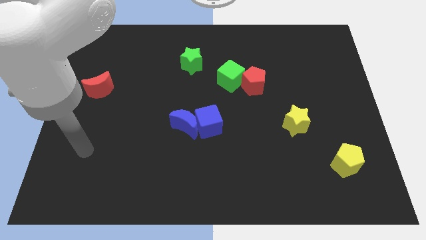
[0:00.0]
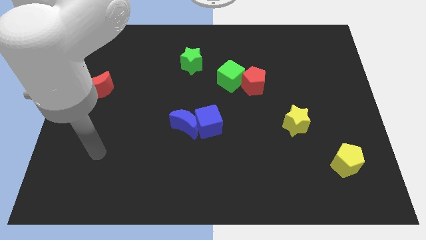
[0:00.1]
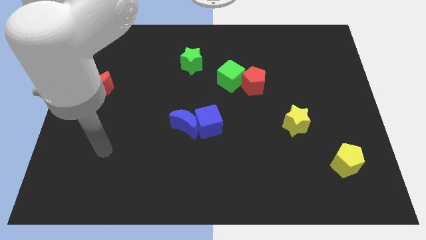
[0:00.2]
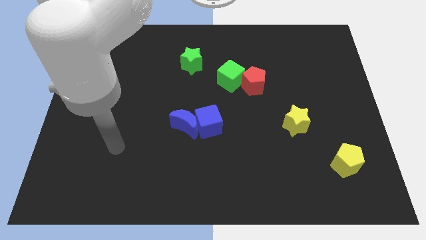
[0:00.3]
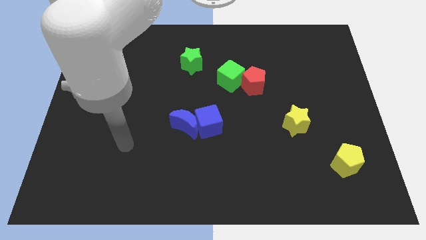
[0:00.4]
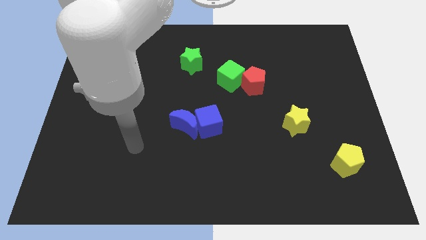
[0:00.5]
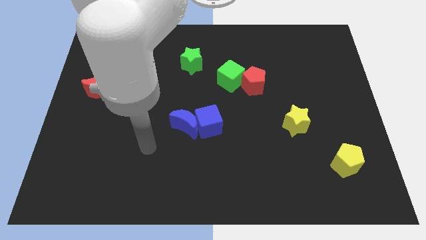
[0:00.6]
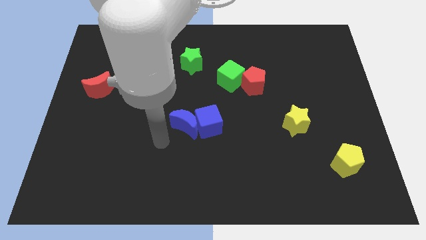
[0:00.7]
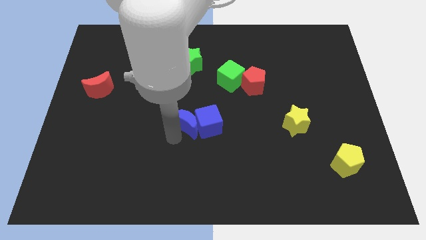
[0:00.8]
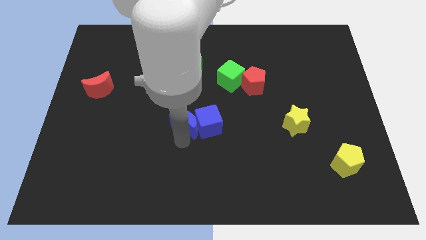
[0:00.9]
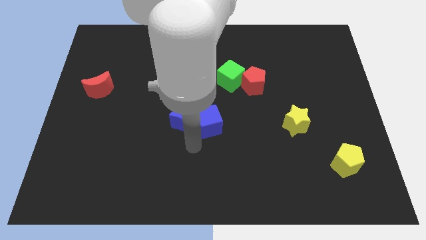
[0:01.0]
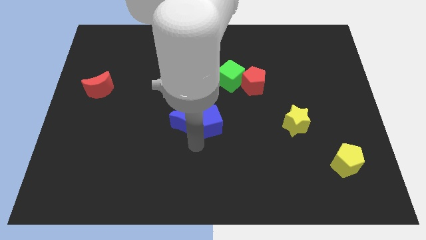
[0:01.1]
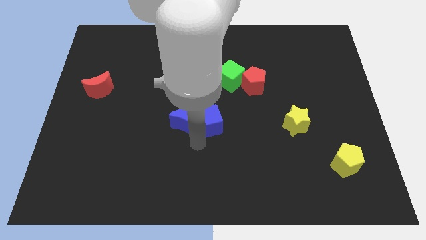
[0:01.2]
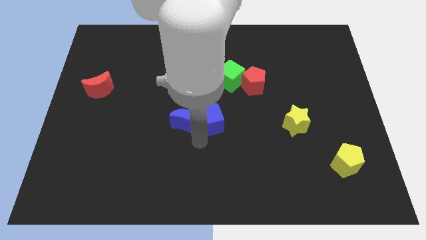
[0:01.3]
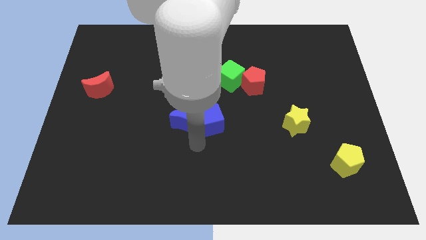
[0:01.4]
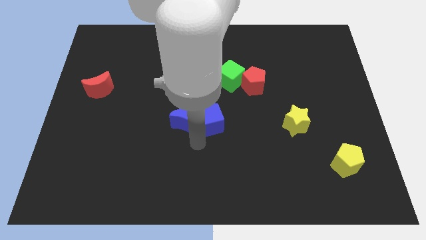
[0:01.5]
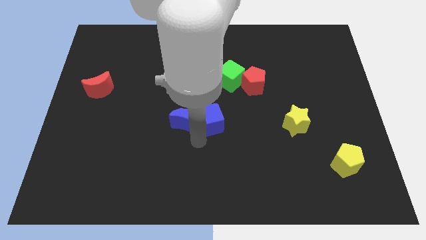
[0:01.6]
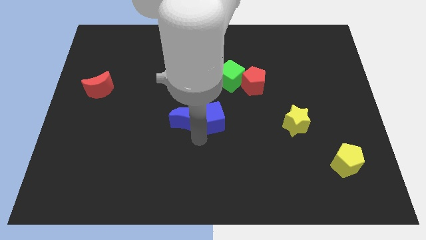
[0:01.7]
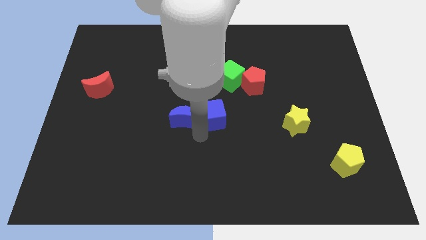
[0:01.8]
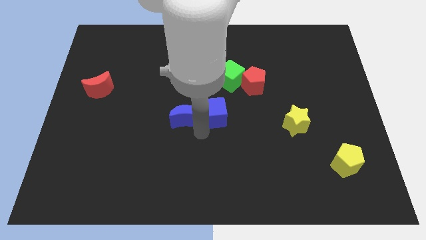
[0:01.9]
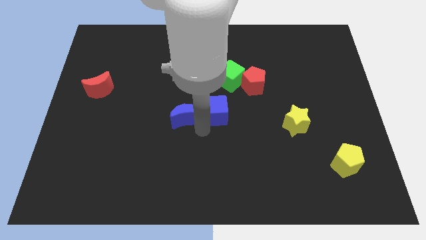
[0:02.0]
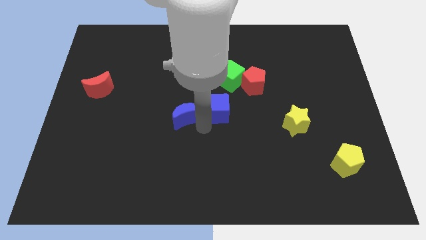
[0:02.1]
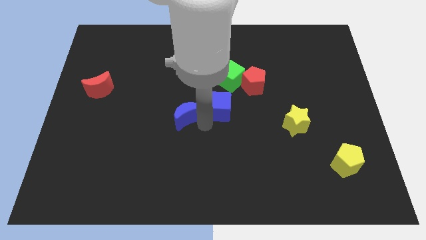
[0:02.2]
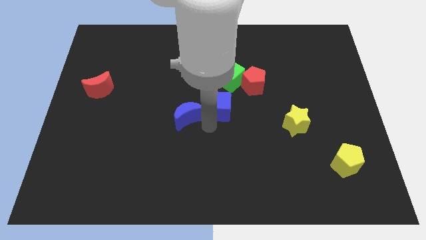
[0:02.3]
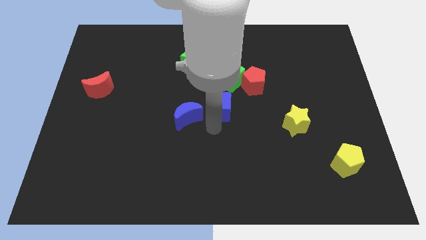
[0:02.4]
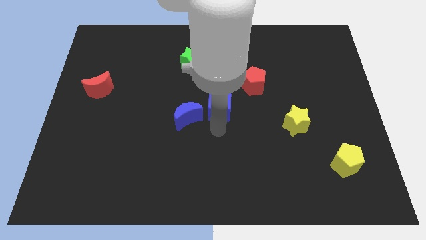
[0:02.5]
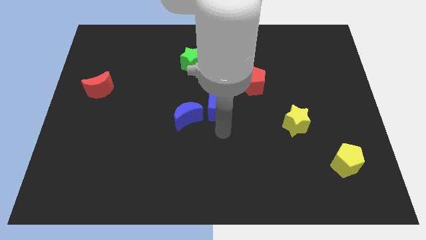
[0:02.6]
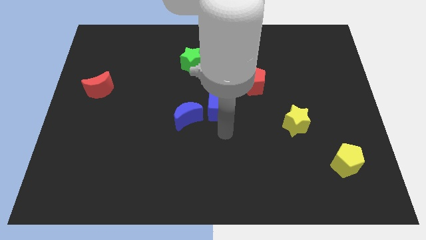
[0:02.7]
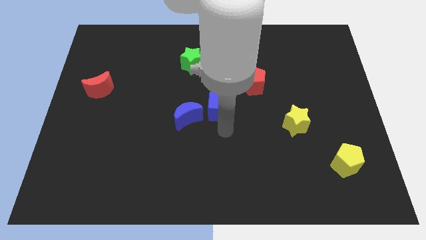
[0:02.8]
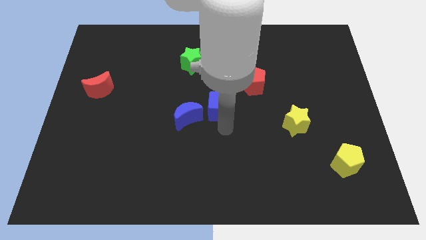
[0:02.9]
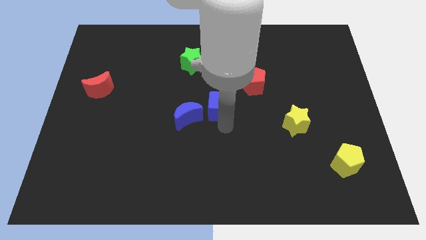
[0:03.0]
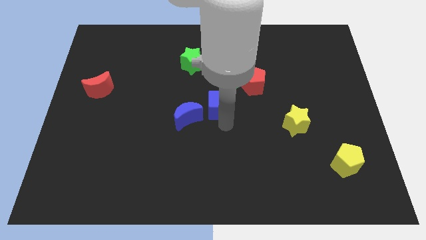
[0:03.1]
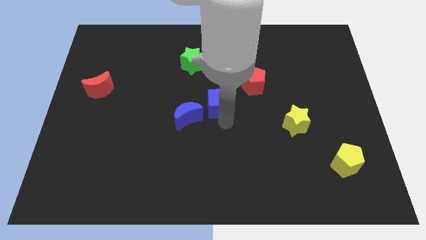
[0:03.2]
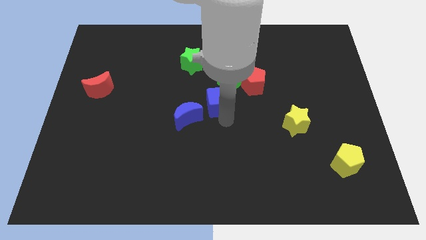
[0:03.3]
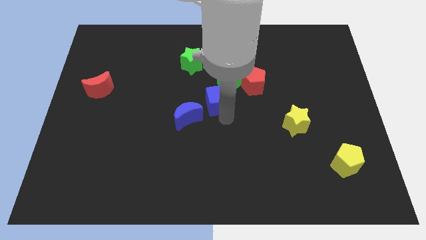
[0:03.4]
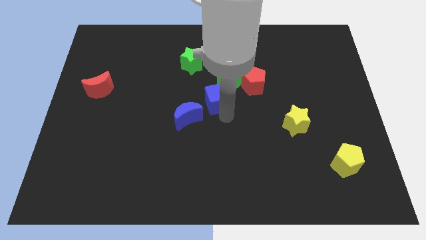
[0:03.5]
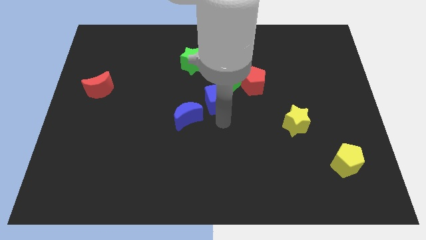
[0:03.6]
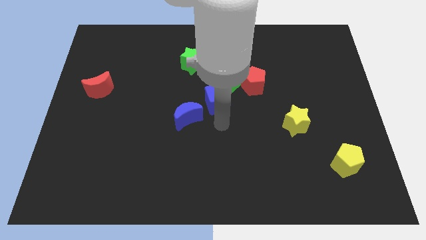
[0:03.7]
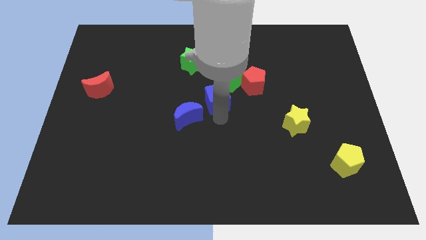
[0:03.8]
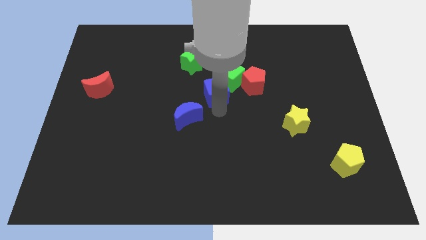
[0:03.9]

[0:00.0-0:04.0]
move the blue cube up a bit

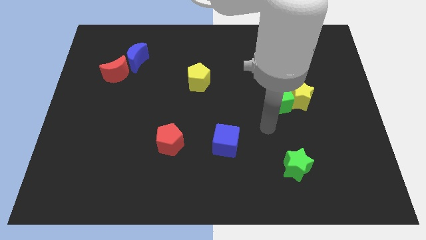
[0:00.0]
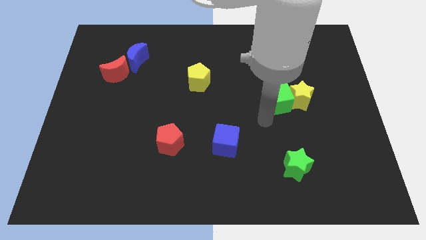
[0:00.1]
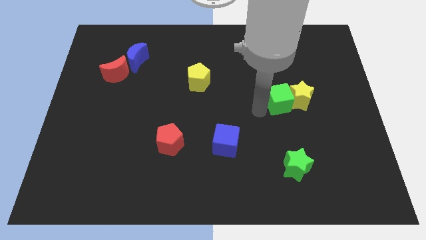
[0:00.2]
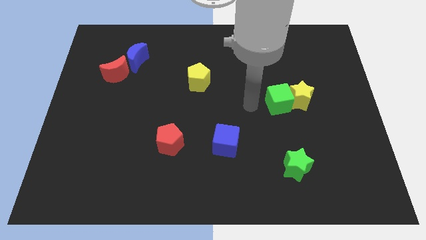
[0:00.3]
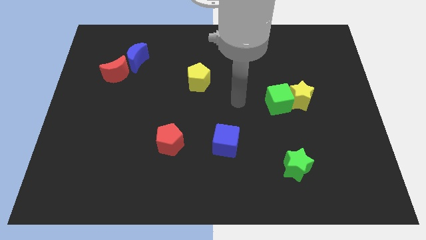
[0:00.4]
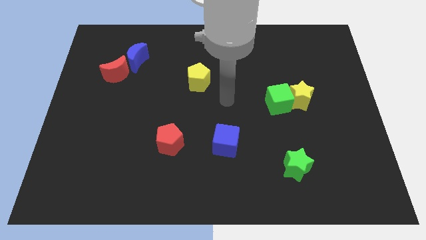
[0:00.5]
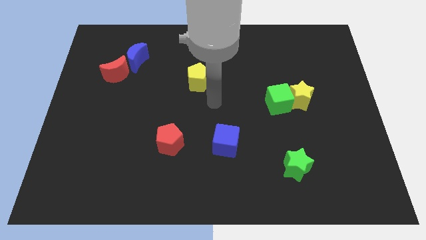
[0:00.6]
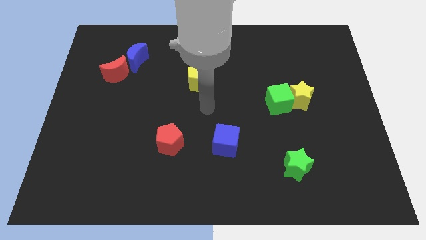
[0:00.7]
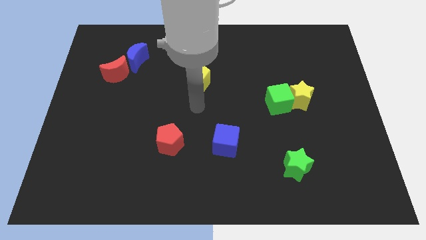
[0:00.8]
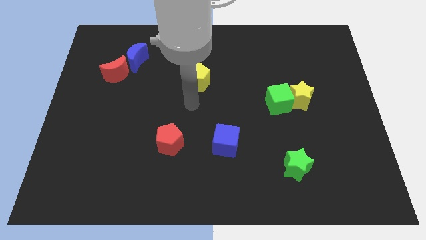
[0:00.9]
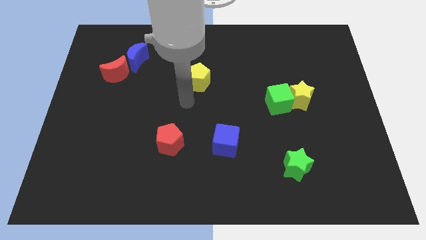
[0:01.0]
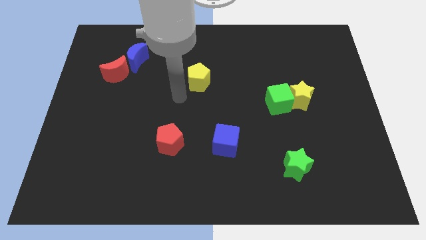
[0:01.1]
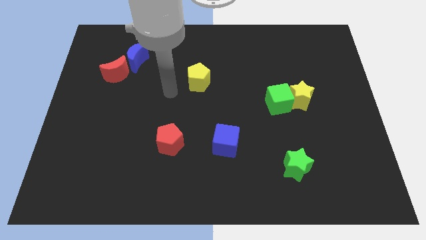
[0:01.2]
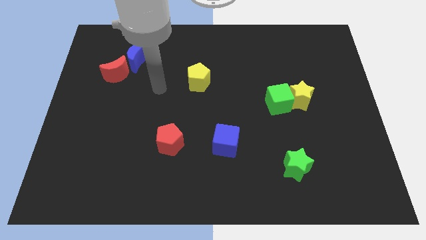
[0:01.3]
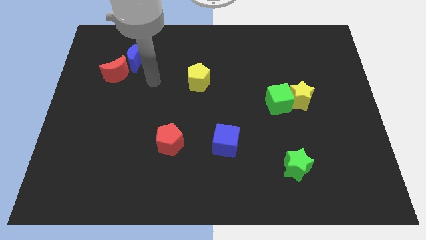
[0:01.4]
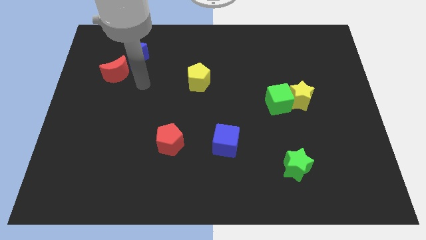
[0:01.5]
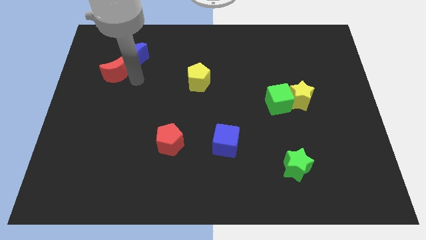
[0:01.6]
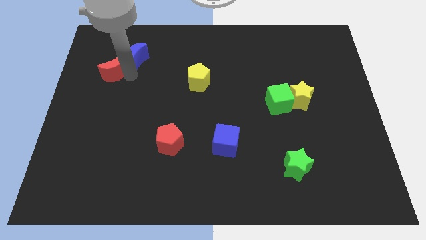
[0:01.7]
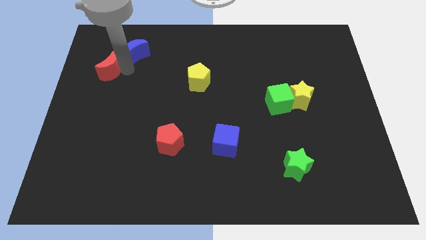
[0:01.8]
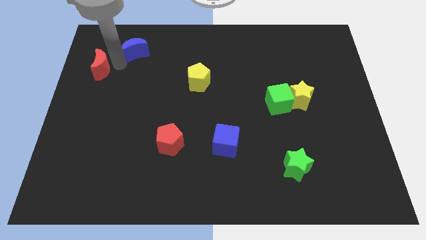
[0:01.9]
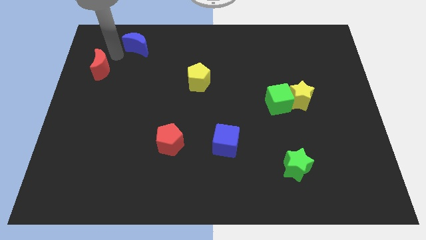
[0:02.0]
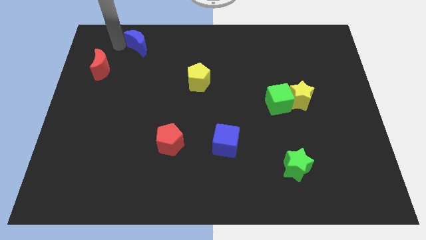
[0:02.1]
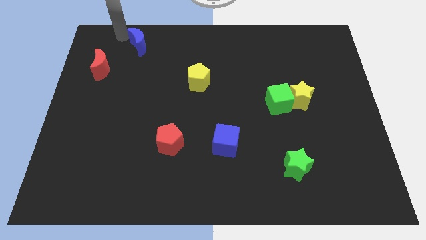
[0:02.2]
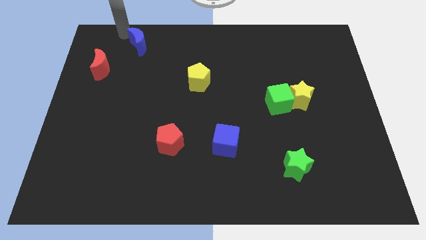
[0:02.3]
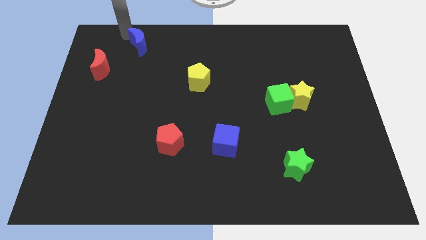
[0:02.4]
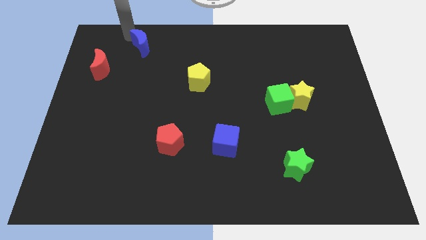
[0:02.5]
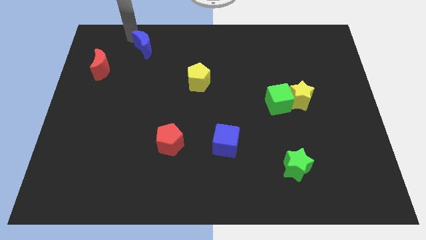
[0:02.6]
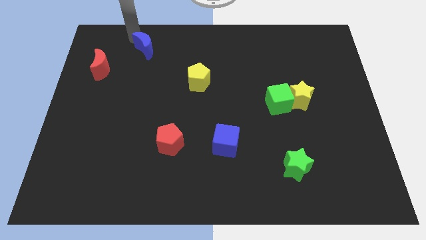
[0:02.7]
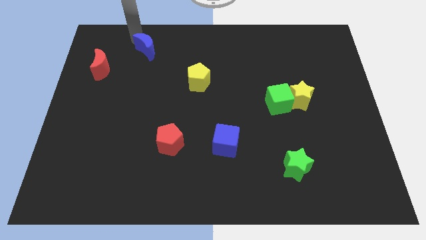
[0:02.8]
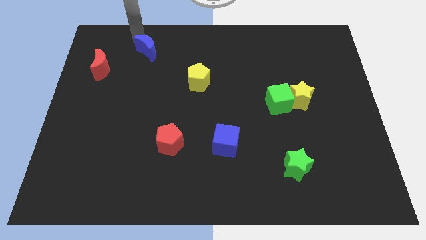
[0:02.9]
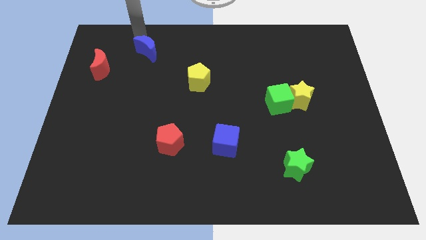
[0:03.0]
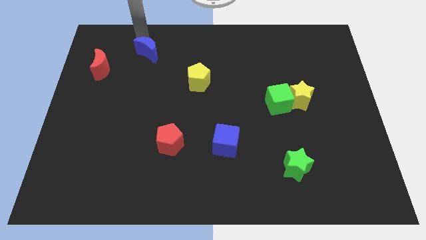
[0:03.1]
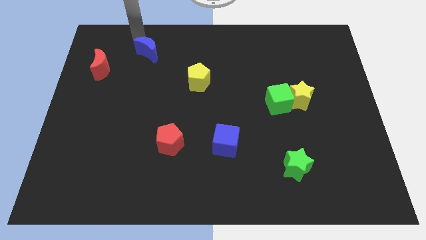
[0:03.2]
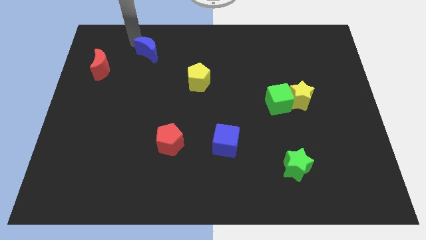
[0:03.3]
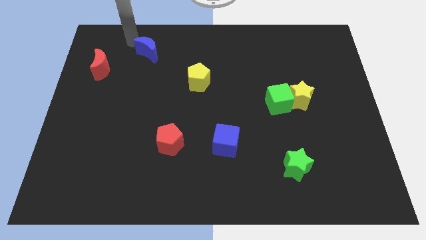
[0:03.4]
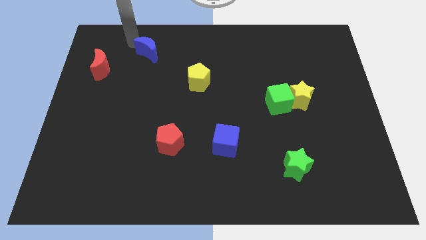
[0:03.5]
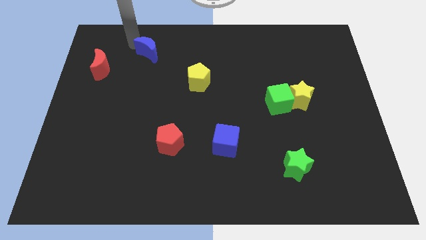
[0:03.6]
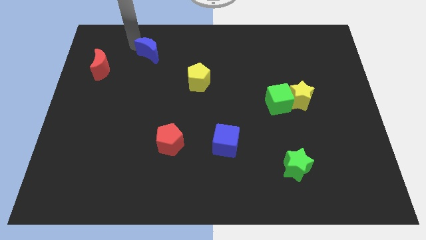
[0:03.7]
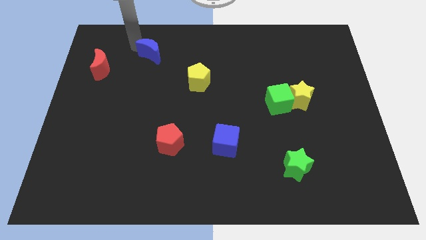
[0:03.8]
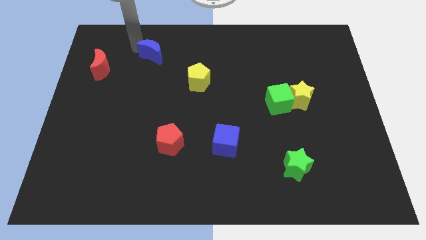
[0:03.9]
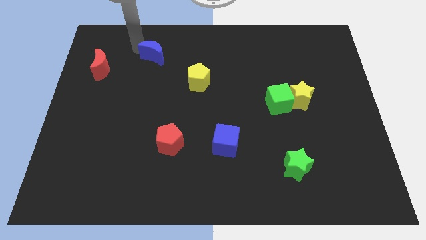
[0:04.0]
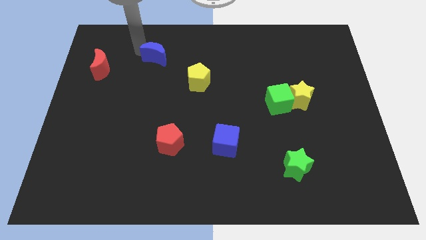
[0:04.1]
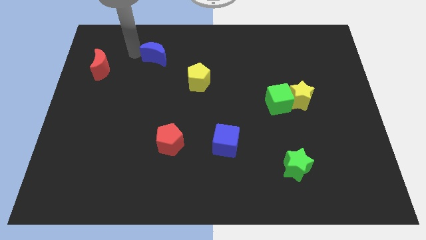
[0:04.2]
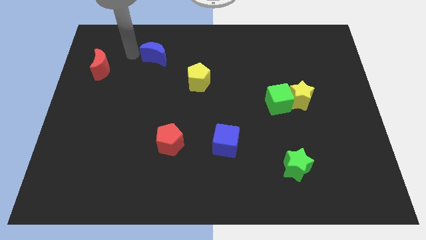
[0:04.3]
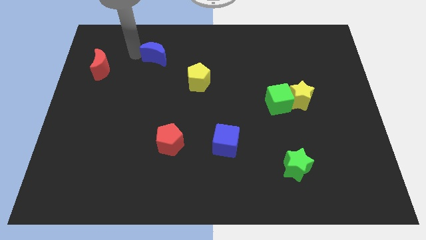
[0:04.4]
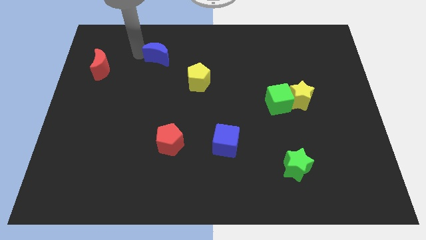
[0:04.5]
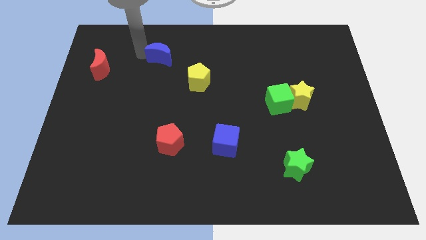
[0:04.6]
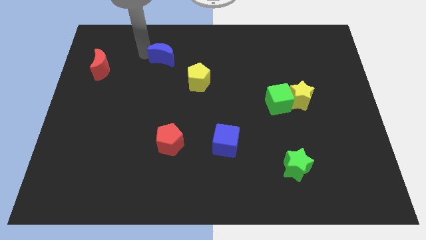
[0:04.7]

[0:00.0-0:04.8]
push the blue moon somewhat to the right
